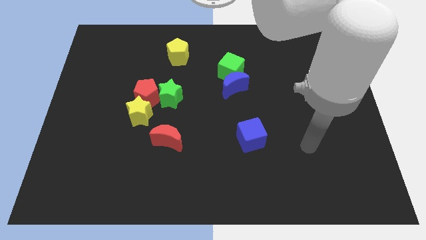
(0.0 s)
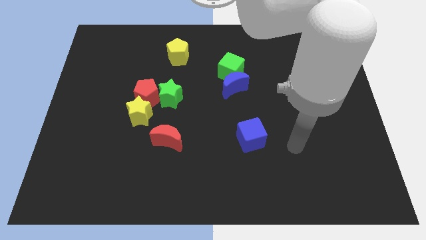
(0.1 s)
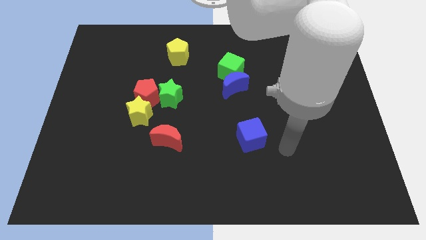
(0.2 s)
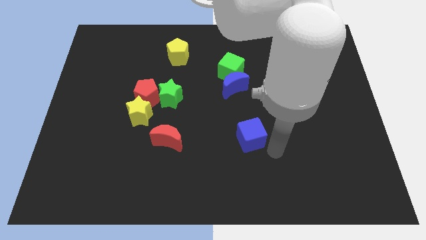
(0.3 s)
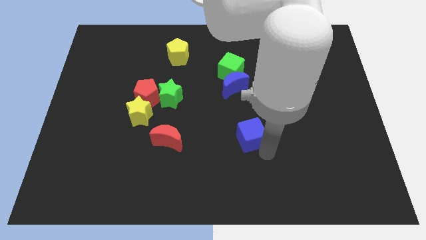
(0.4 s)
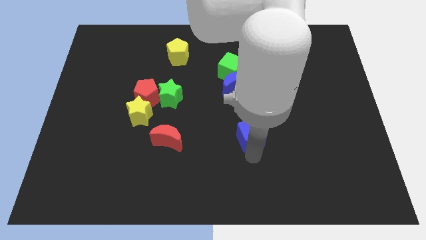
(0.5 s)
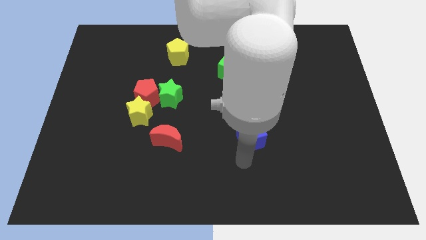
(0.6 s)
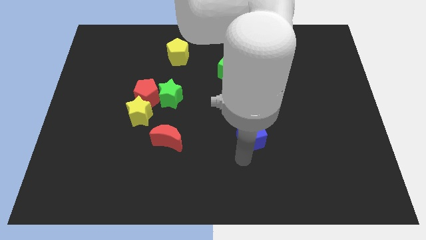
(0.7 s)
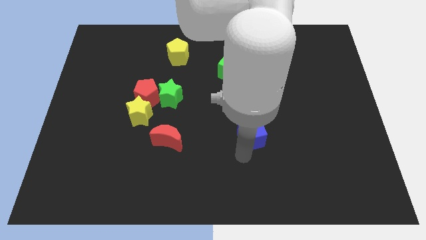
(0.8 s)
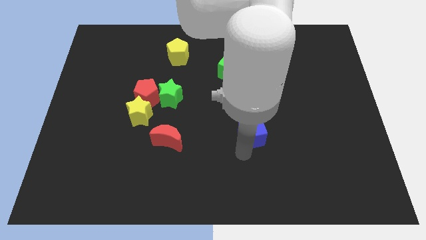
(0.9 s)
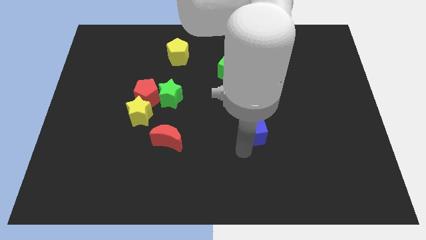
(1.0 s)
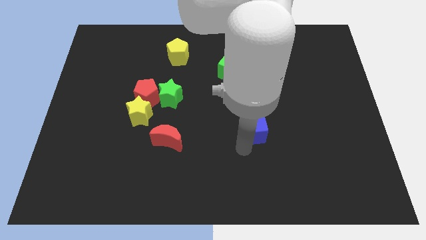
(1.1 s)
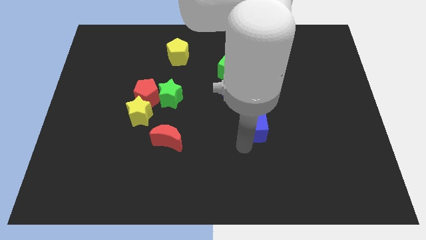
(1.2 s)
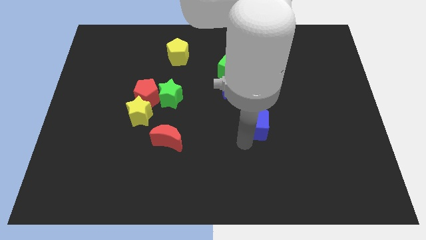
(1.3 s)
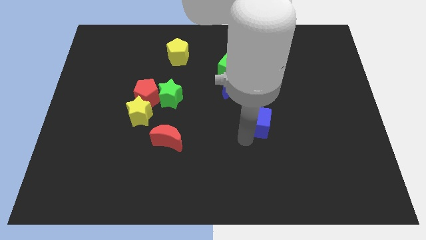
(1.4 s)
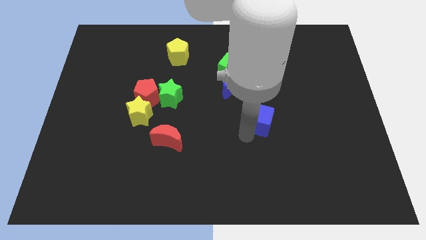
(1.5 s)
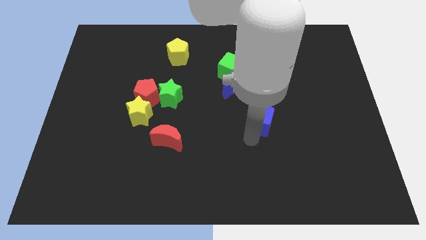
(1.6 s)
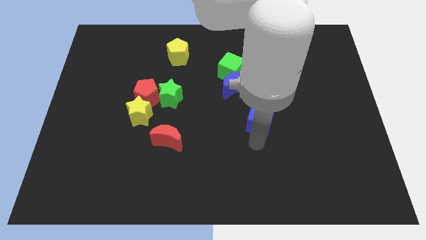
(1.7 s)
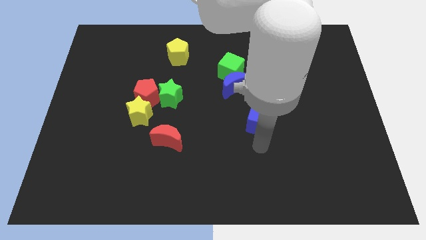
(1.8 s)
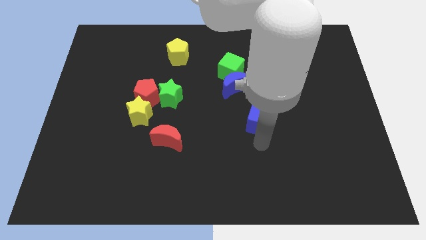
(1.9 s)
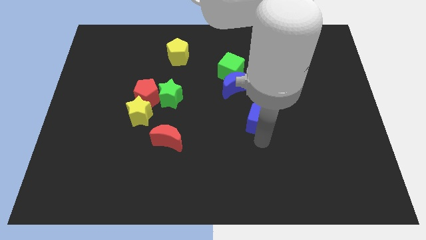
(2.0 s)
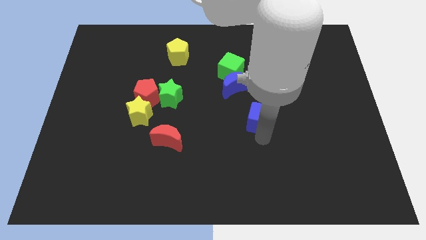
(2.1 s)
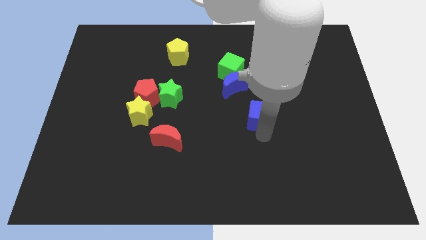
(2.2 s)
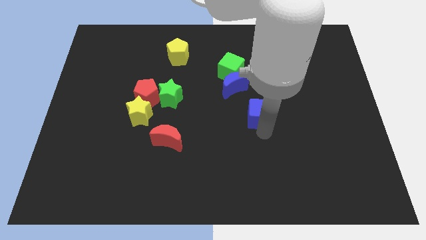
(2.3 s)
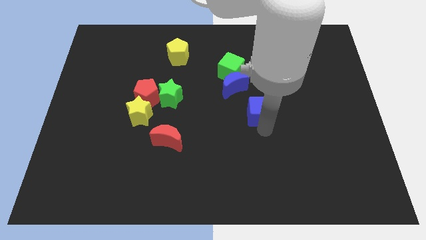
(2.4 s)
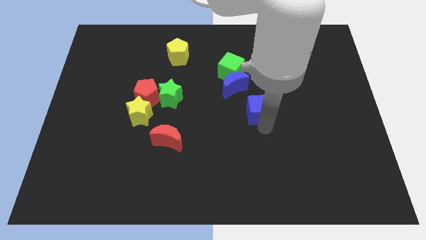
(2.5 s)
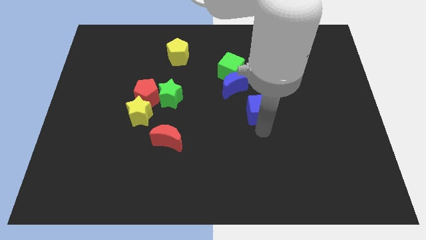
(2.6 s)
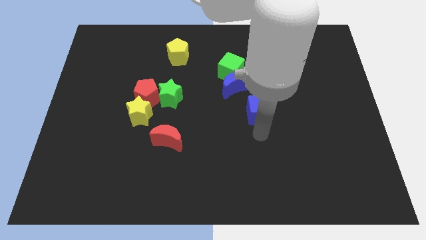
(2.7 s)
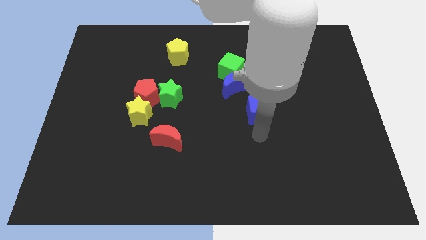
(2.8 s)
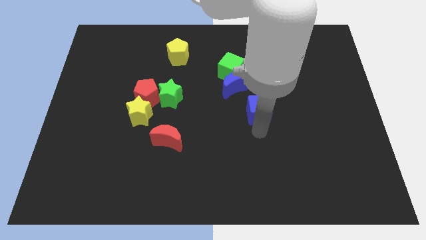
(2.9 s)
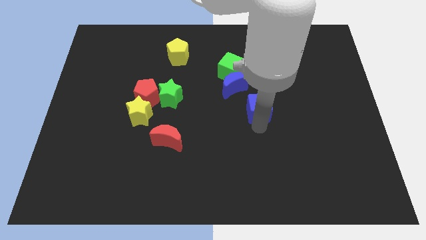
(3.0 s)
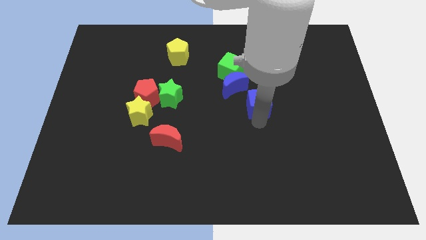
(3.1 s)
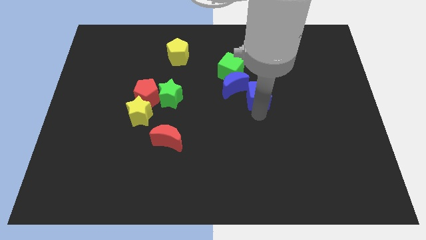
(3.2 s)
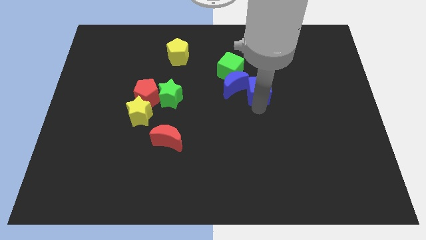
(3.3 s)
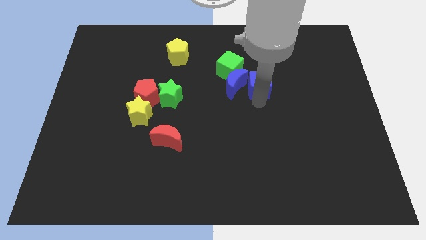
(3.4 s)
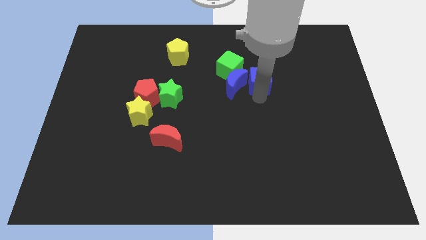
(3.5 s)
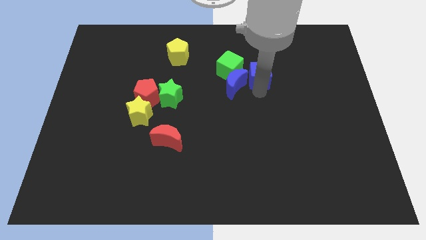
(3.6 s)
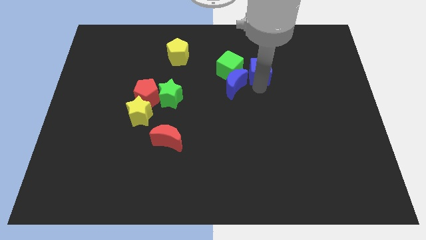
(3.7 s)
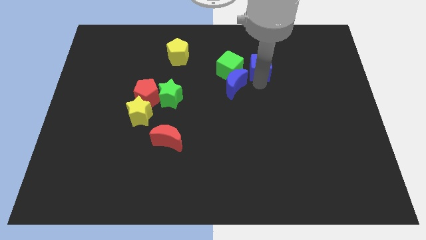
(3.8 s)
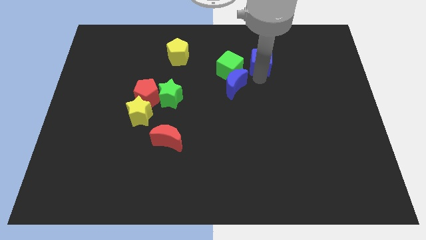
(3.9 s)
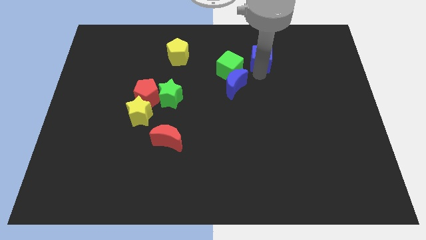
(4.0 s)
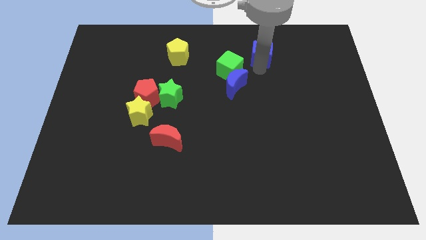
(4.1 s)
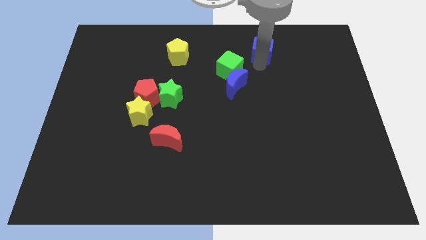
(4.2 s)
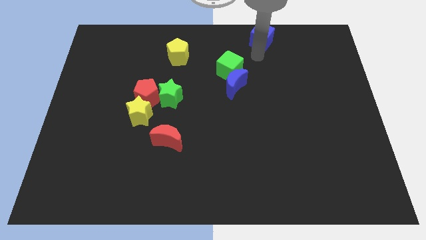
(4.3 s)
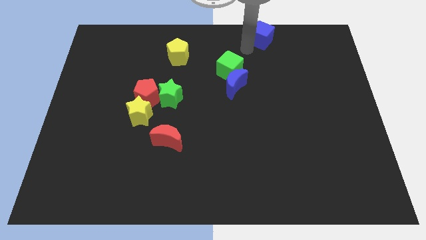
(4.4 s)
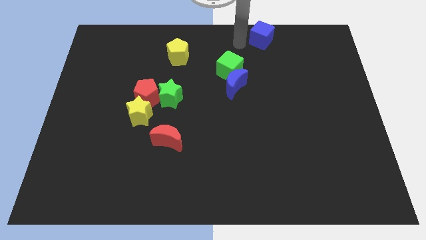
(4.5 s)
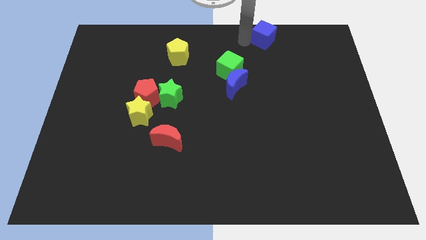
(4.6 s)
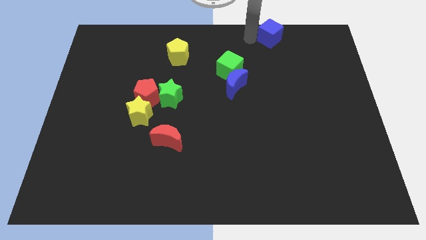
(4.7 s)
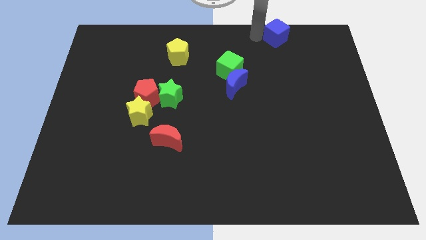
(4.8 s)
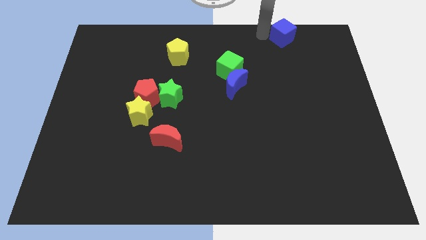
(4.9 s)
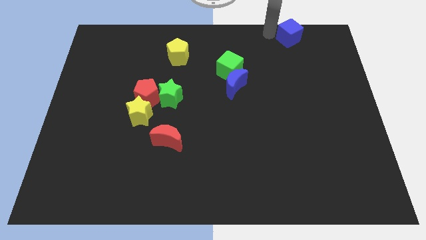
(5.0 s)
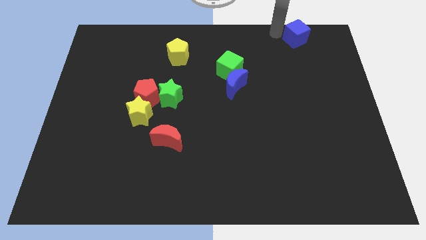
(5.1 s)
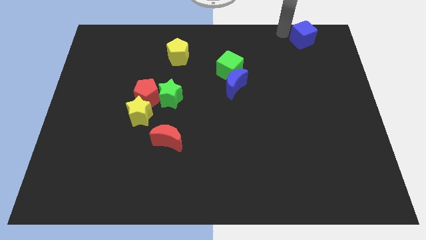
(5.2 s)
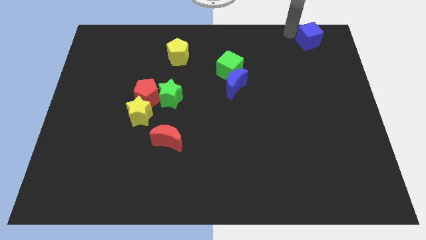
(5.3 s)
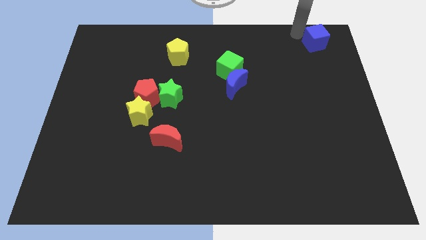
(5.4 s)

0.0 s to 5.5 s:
slide the blue cube to the top right

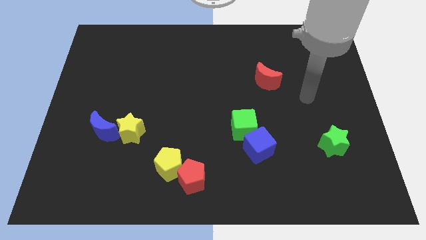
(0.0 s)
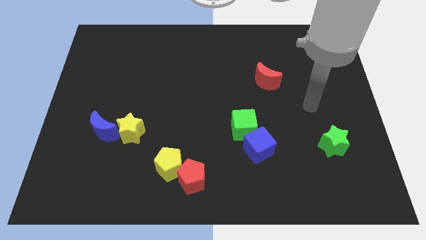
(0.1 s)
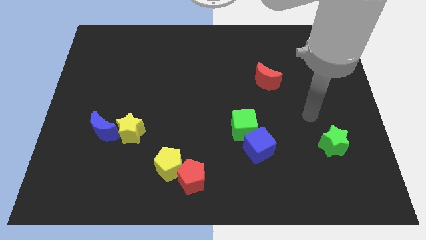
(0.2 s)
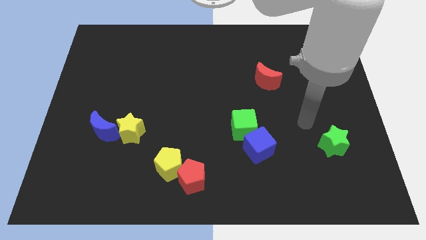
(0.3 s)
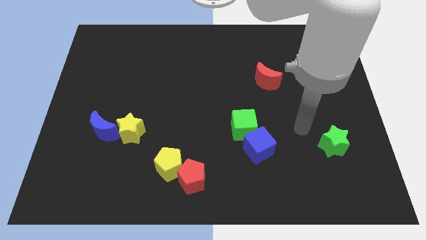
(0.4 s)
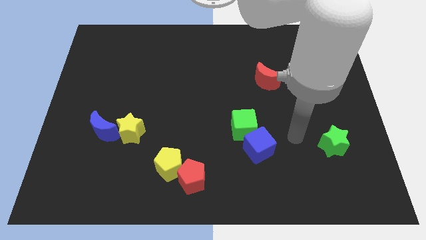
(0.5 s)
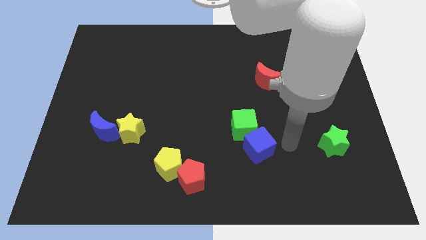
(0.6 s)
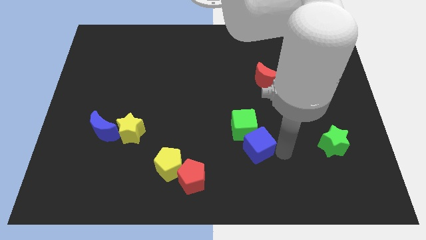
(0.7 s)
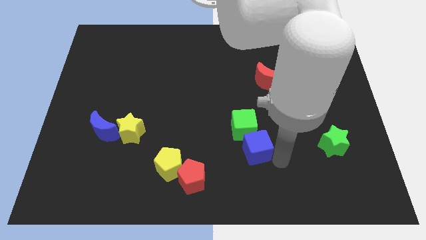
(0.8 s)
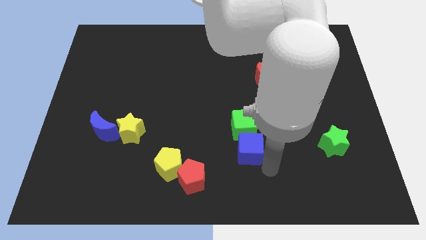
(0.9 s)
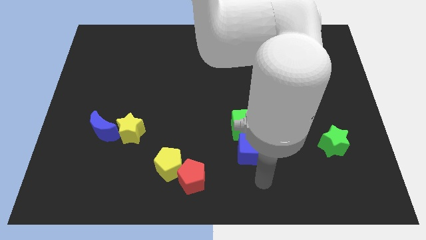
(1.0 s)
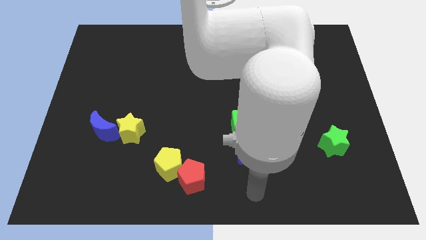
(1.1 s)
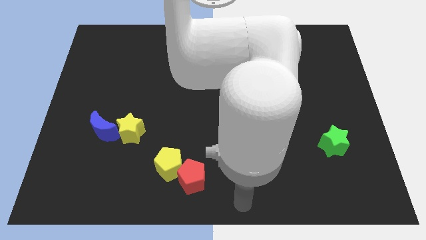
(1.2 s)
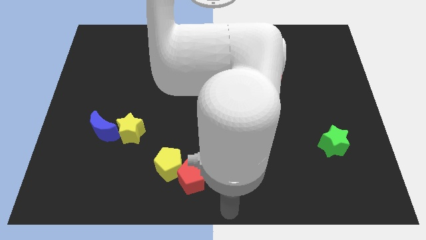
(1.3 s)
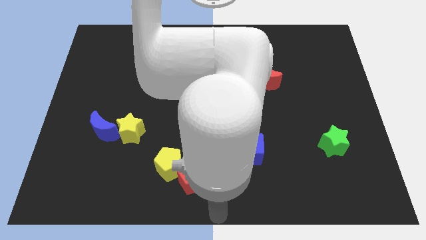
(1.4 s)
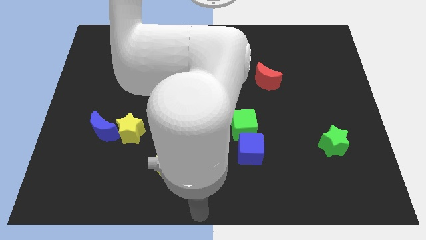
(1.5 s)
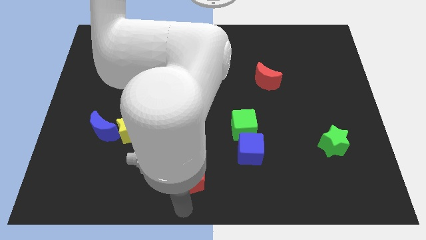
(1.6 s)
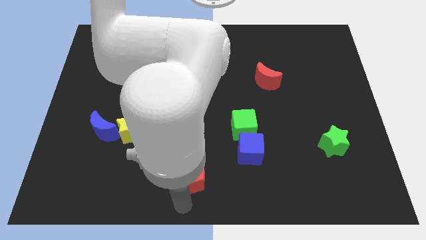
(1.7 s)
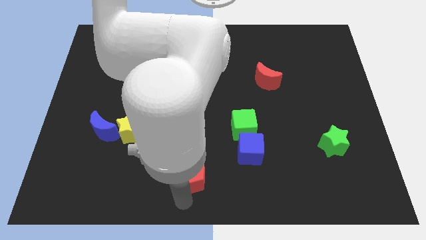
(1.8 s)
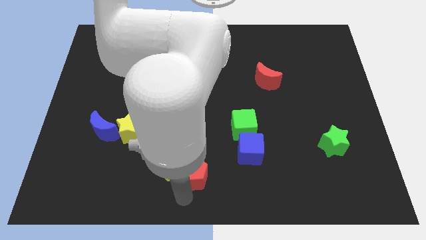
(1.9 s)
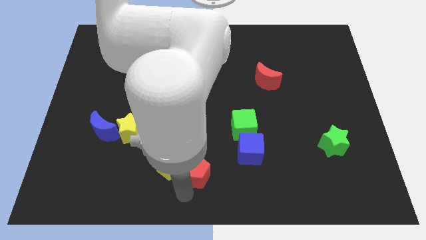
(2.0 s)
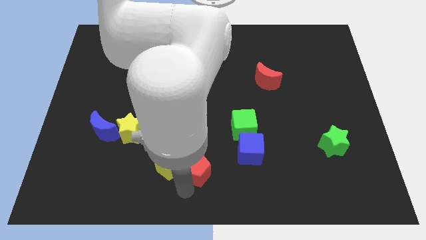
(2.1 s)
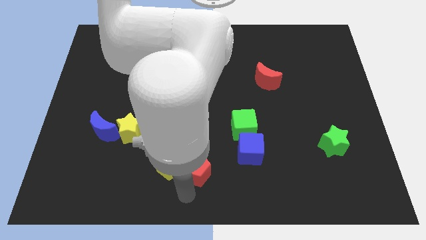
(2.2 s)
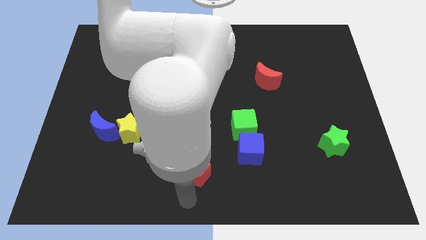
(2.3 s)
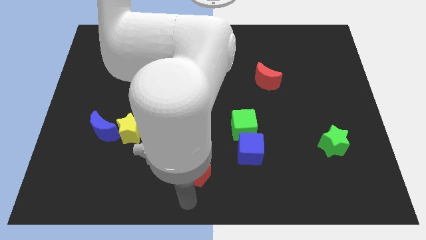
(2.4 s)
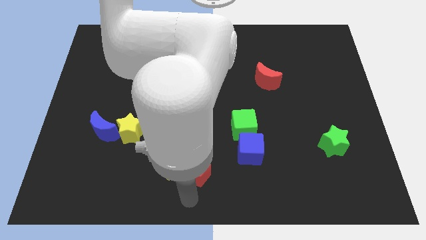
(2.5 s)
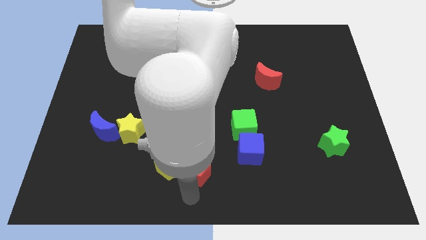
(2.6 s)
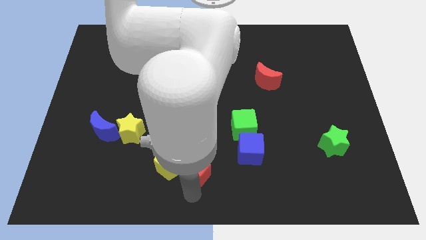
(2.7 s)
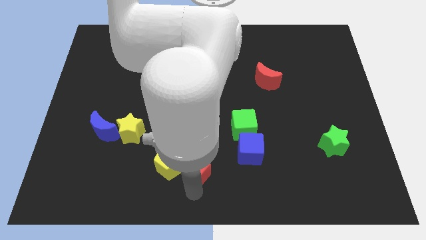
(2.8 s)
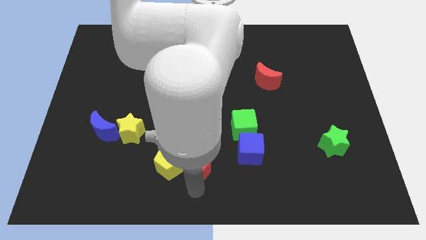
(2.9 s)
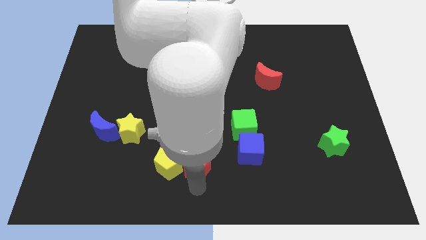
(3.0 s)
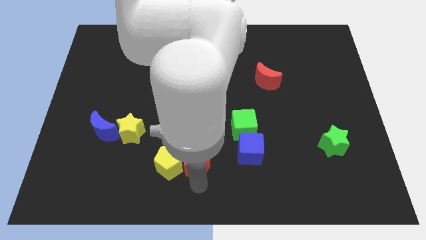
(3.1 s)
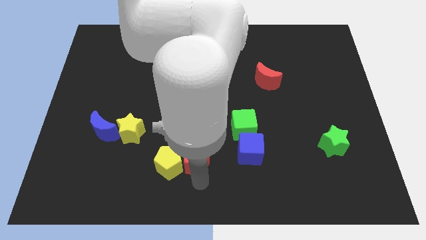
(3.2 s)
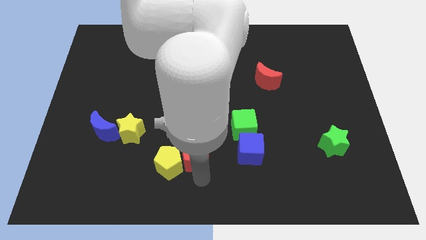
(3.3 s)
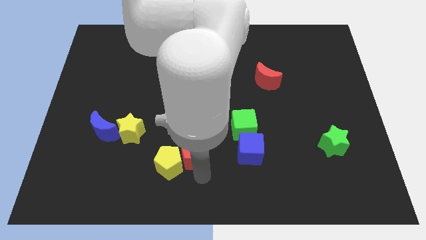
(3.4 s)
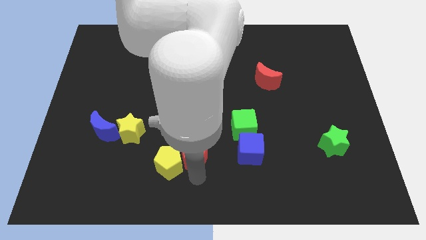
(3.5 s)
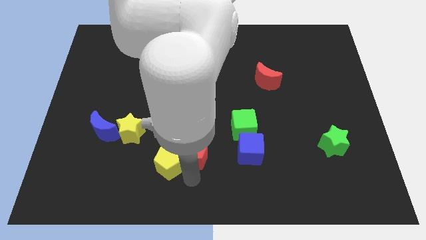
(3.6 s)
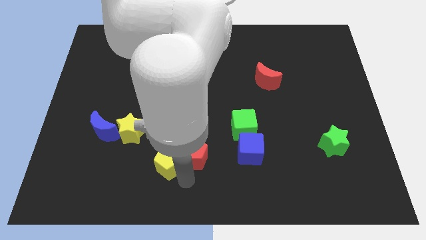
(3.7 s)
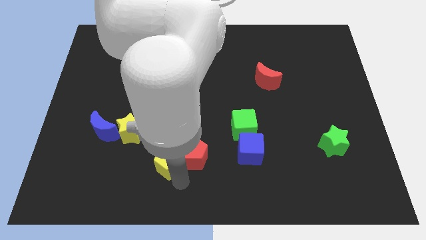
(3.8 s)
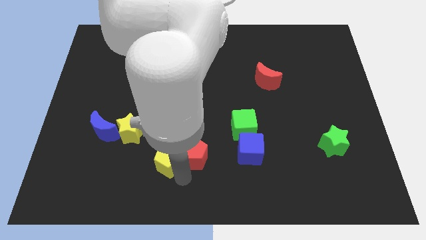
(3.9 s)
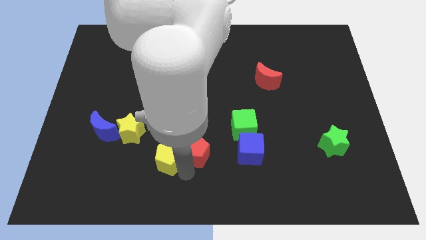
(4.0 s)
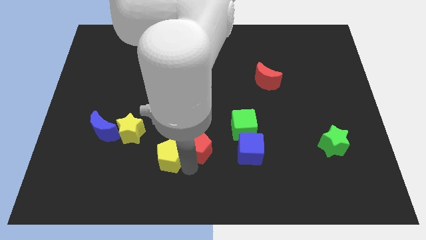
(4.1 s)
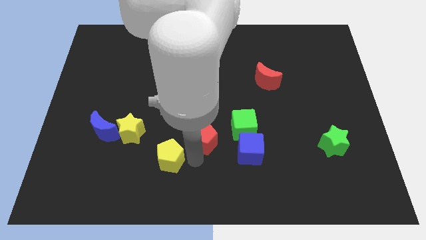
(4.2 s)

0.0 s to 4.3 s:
push the red pentagon to the middle
